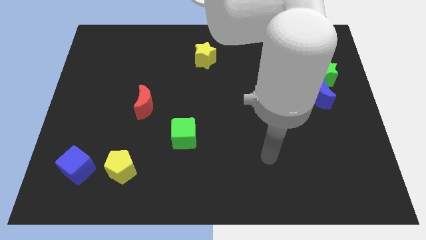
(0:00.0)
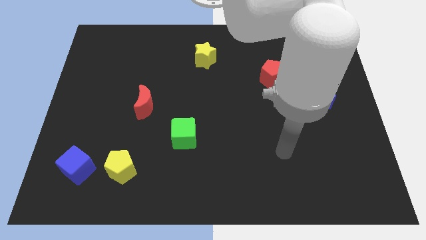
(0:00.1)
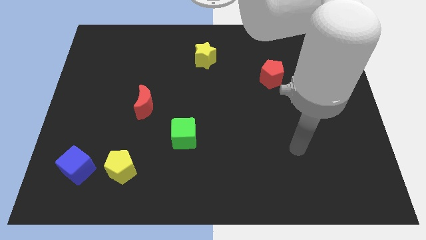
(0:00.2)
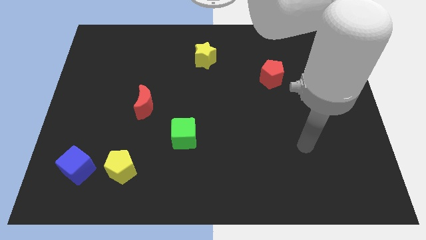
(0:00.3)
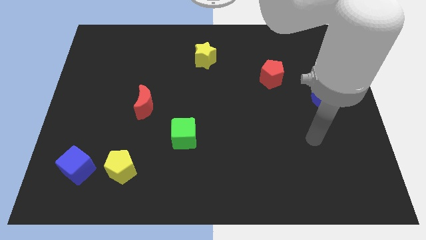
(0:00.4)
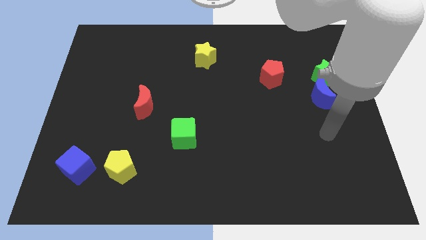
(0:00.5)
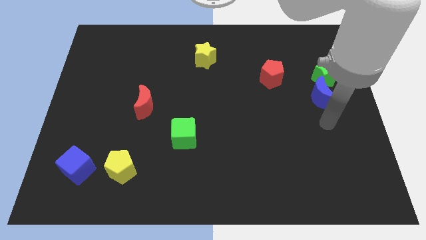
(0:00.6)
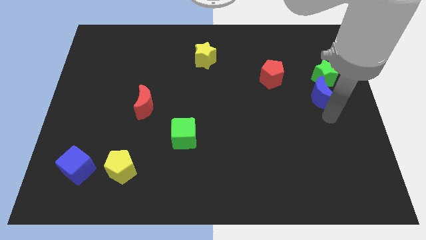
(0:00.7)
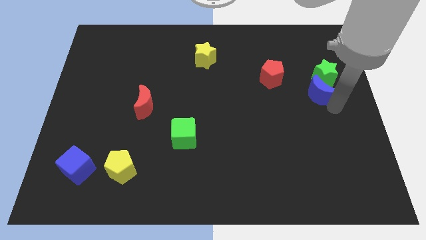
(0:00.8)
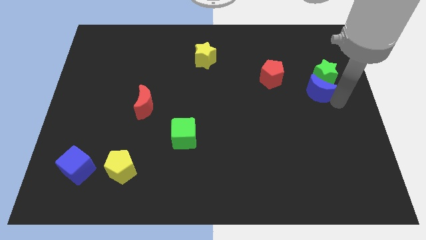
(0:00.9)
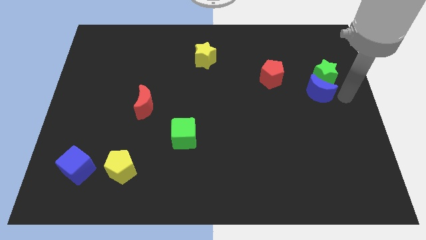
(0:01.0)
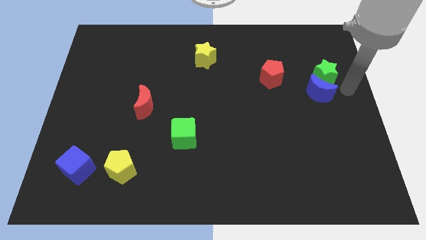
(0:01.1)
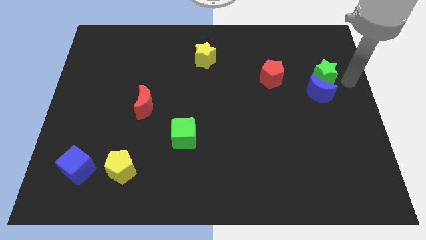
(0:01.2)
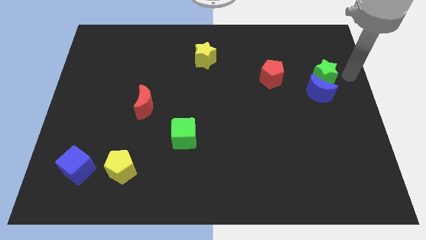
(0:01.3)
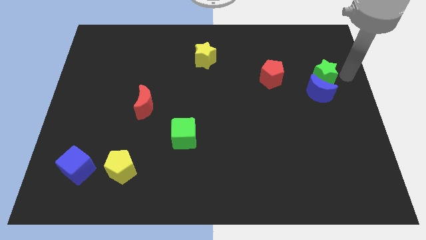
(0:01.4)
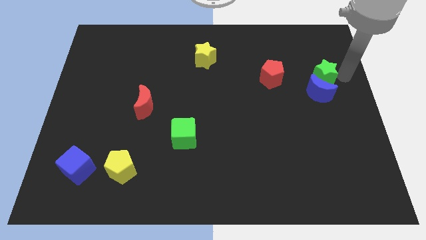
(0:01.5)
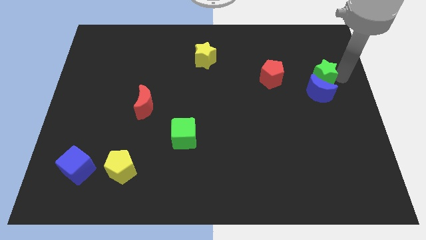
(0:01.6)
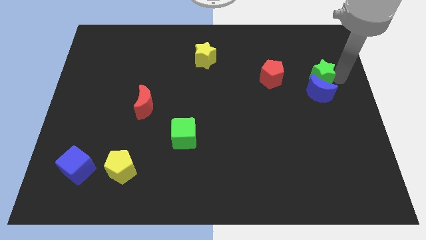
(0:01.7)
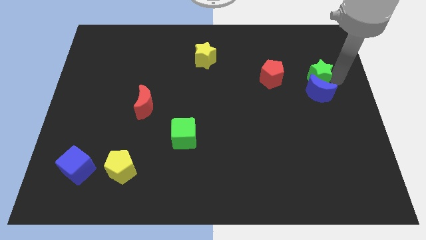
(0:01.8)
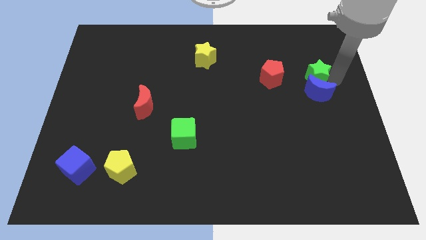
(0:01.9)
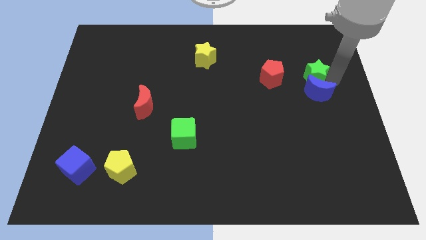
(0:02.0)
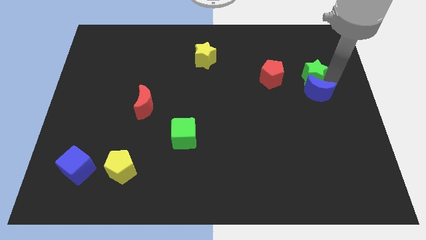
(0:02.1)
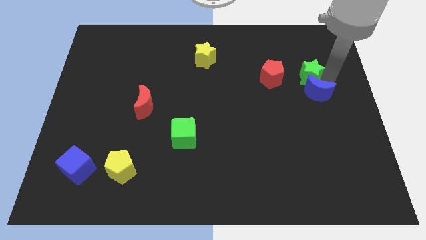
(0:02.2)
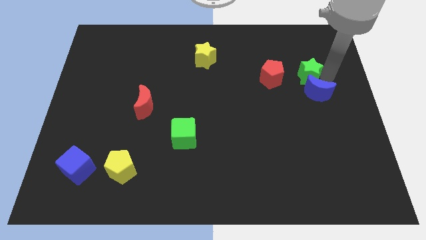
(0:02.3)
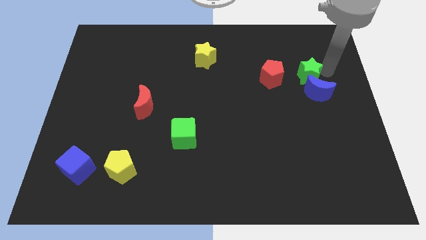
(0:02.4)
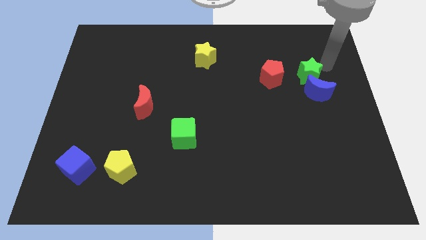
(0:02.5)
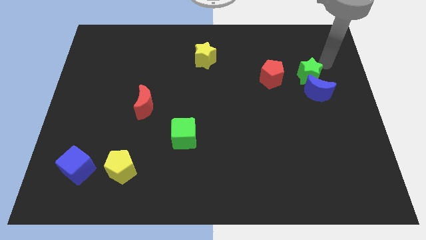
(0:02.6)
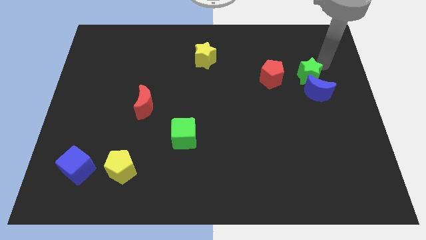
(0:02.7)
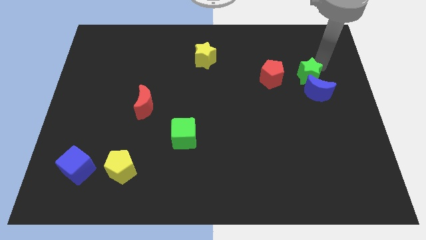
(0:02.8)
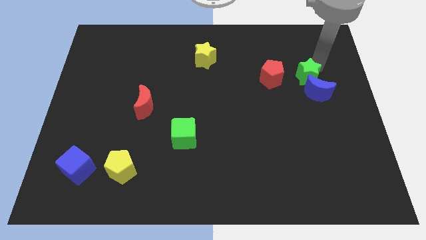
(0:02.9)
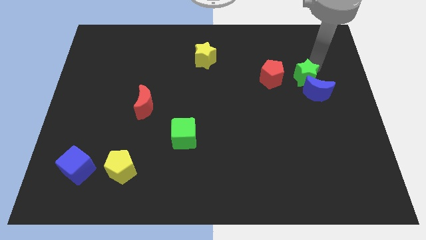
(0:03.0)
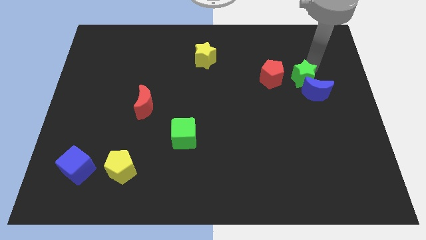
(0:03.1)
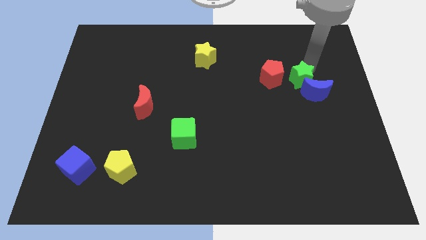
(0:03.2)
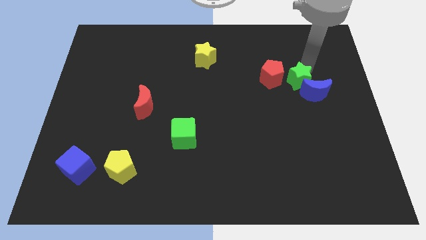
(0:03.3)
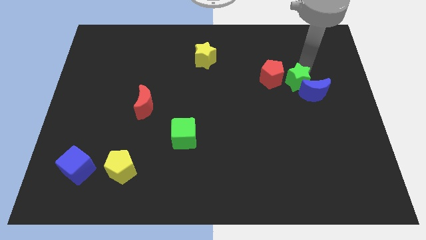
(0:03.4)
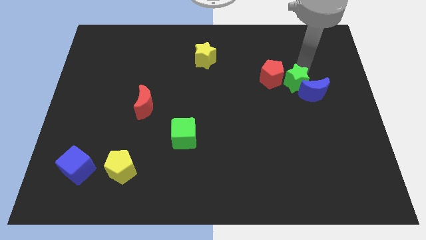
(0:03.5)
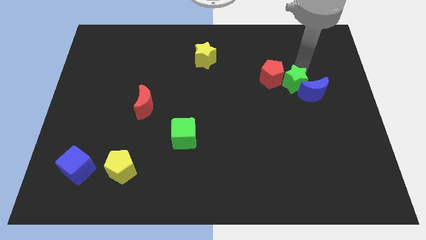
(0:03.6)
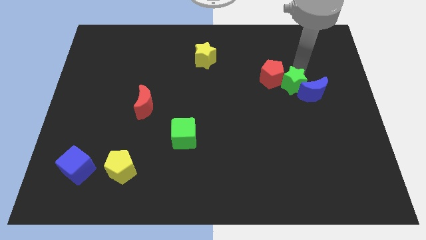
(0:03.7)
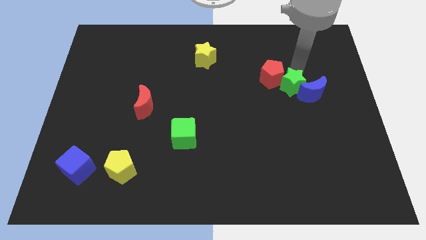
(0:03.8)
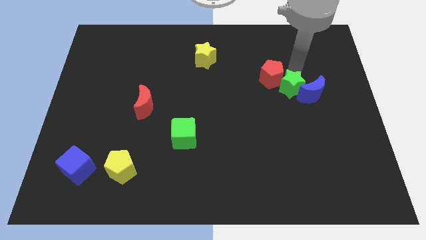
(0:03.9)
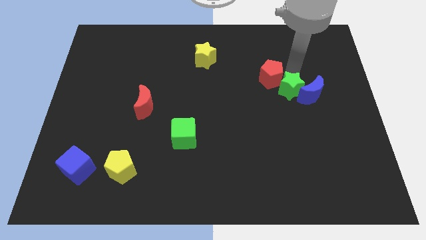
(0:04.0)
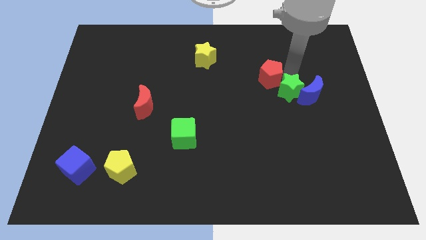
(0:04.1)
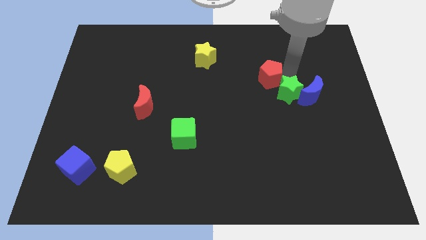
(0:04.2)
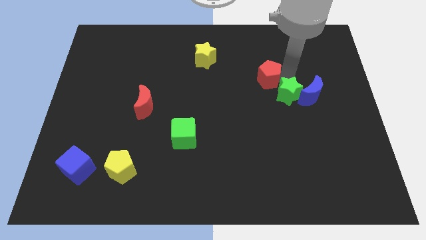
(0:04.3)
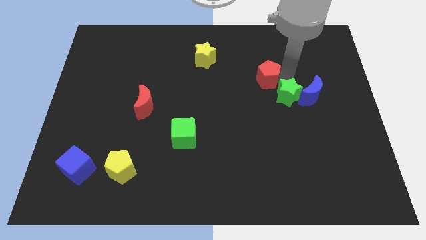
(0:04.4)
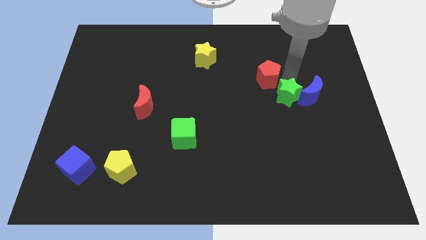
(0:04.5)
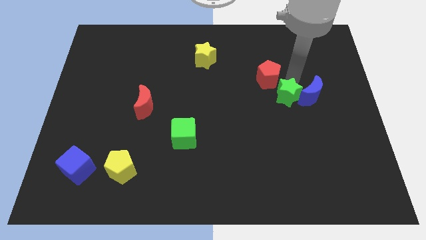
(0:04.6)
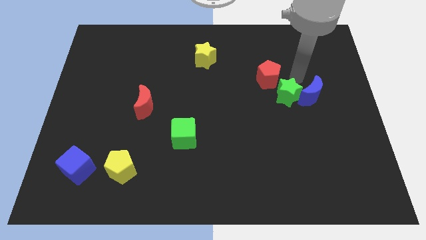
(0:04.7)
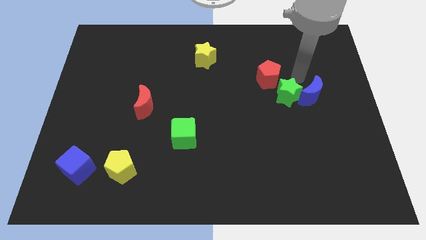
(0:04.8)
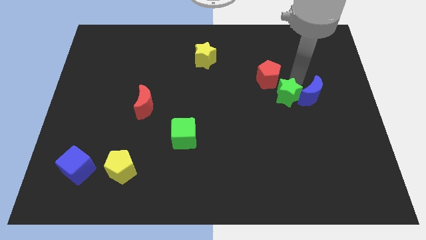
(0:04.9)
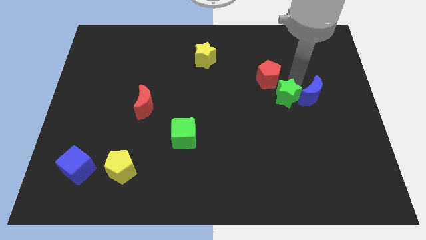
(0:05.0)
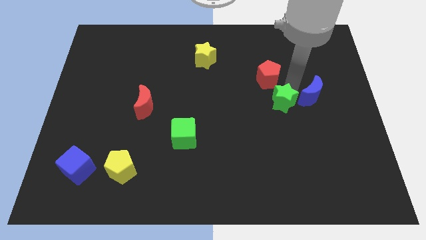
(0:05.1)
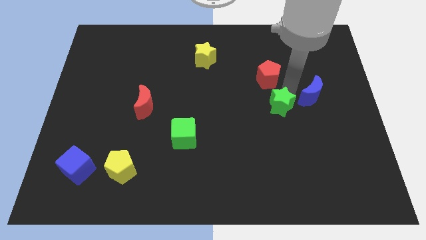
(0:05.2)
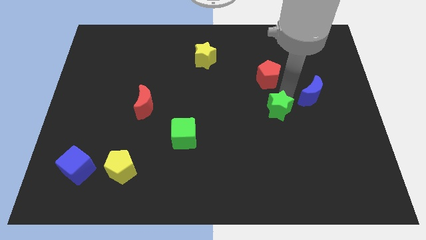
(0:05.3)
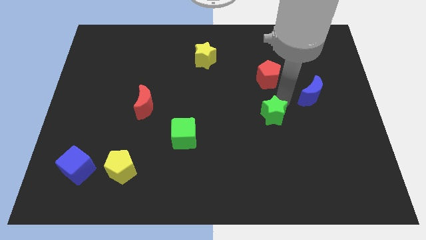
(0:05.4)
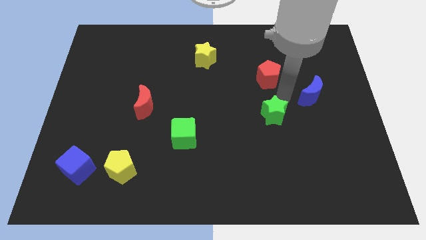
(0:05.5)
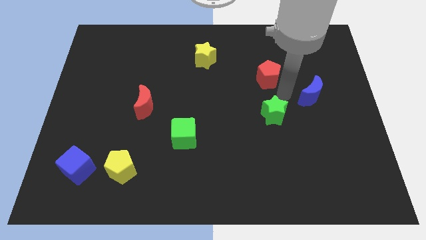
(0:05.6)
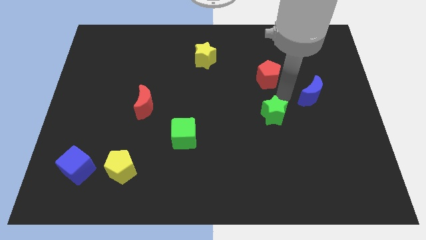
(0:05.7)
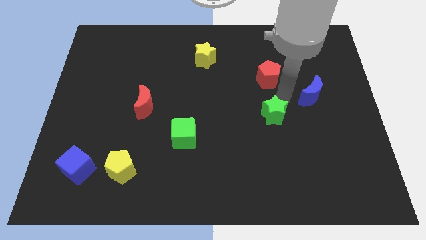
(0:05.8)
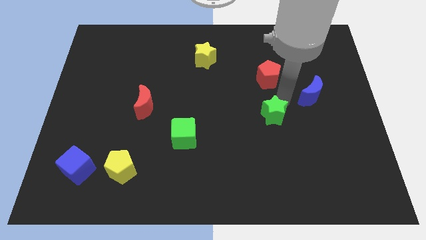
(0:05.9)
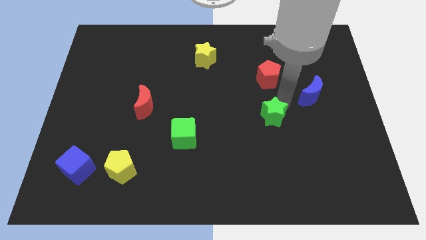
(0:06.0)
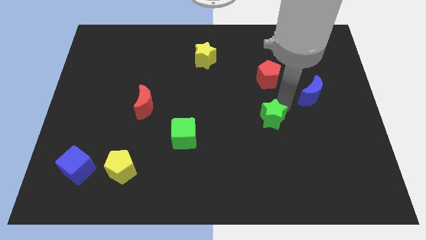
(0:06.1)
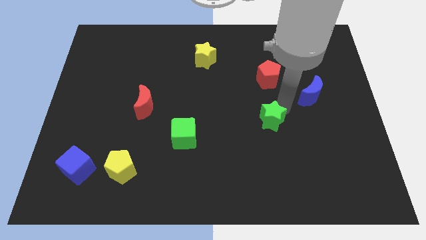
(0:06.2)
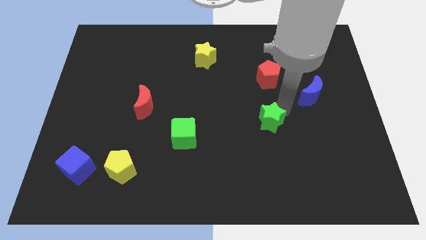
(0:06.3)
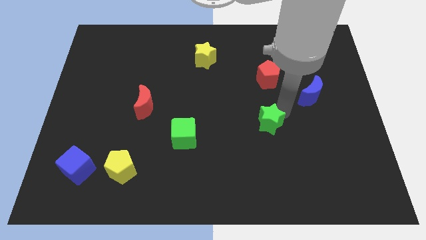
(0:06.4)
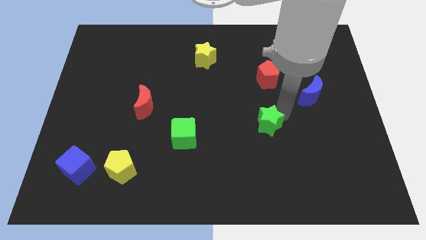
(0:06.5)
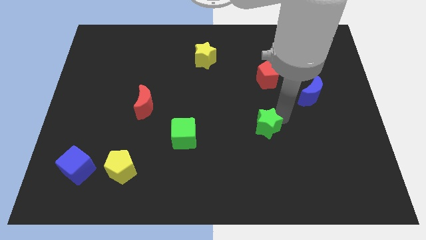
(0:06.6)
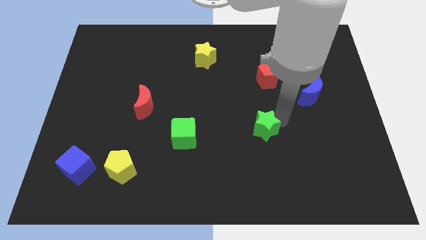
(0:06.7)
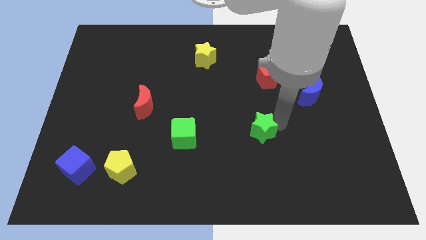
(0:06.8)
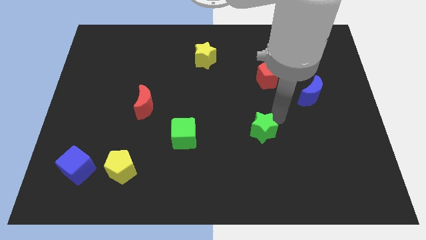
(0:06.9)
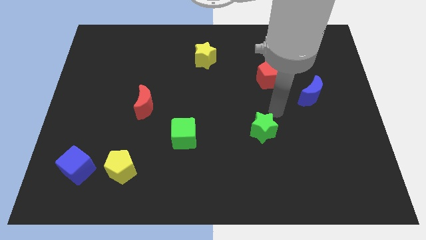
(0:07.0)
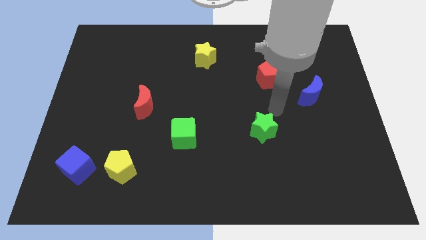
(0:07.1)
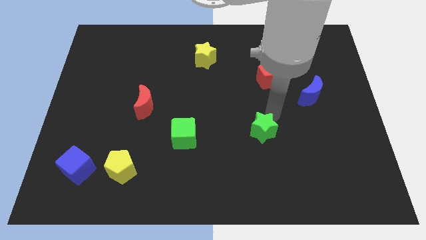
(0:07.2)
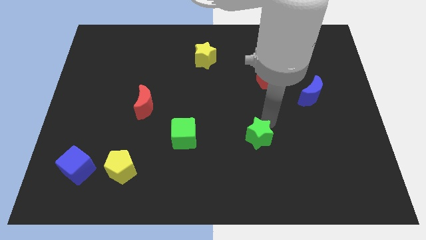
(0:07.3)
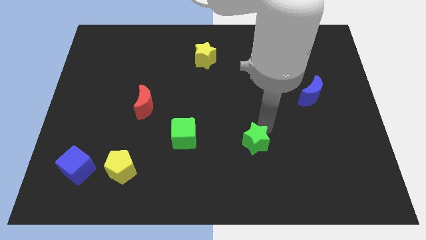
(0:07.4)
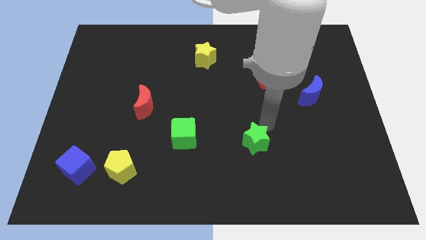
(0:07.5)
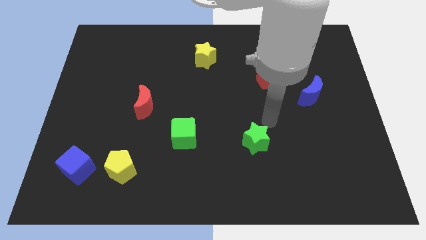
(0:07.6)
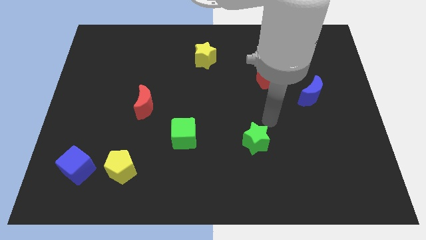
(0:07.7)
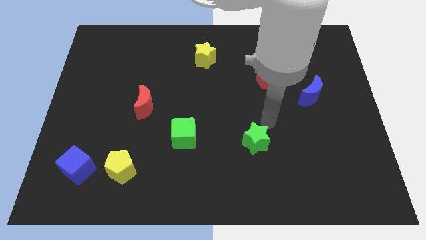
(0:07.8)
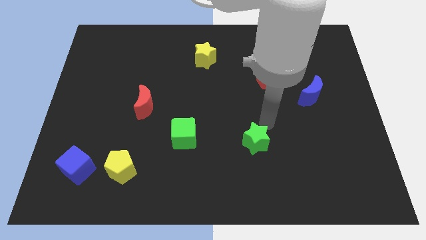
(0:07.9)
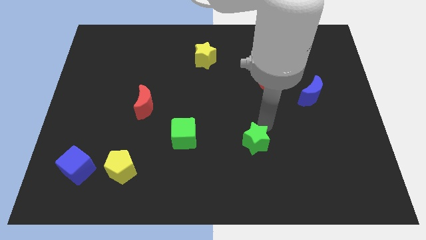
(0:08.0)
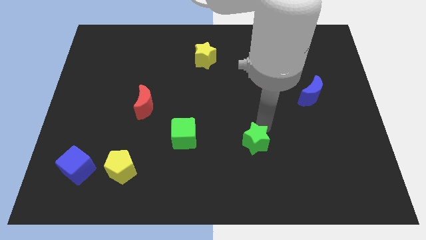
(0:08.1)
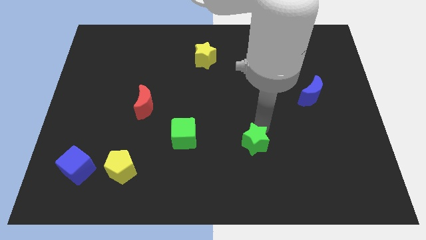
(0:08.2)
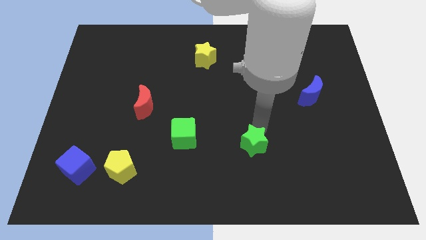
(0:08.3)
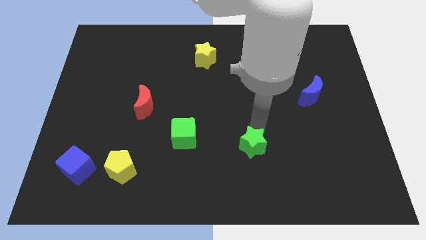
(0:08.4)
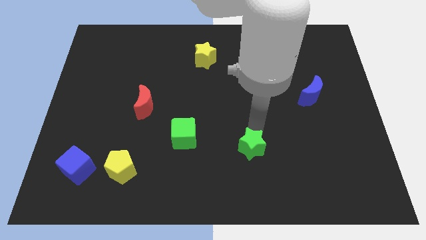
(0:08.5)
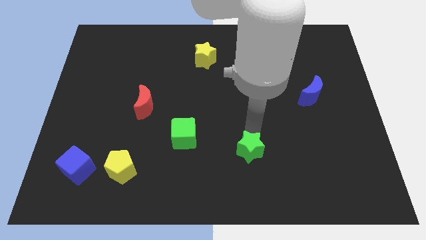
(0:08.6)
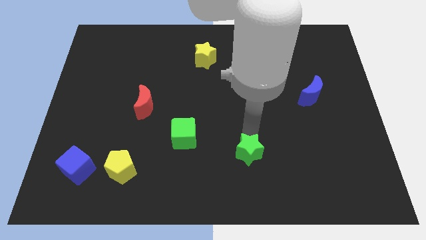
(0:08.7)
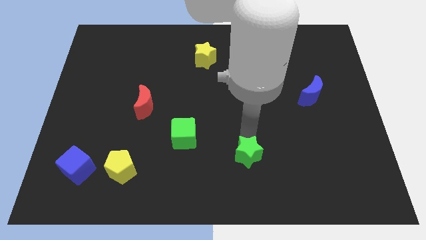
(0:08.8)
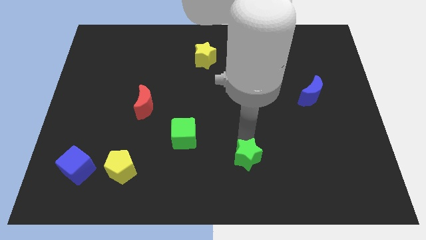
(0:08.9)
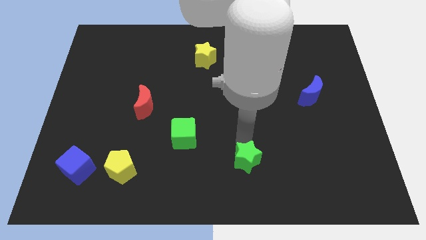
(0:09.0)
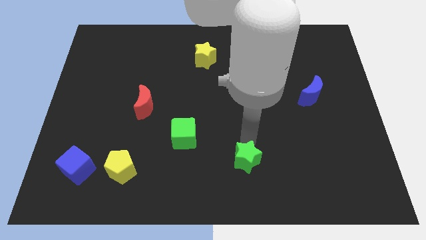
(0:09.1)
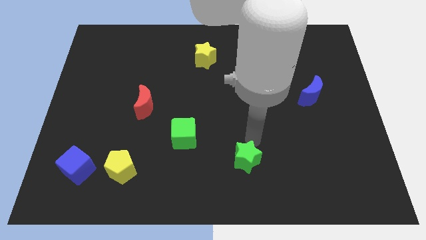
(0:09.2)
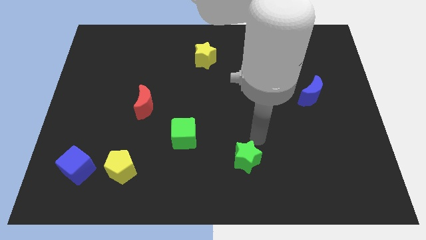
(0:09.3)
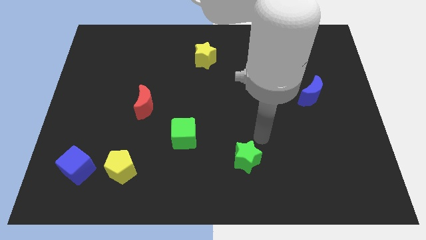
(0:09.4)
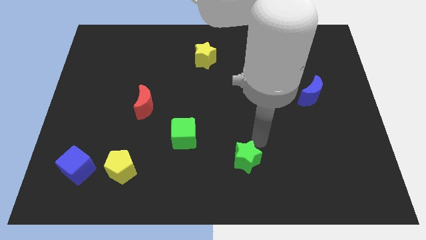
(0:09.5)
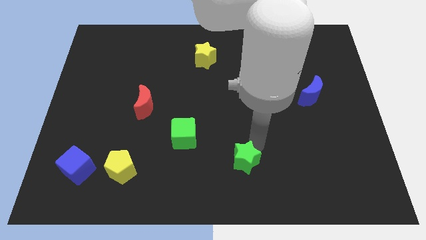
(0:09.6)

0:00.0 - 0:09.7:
push the green star to the bottom
